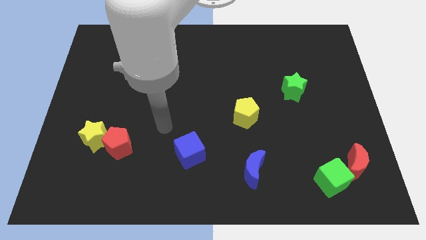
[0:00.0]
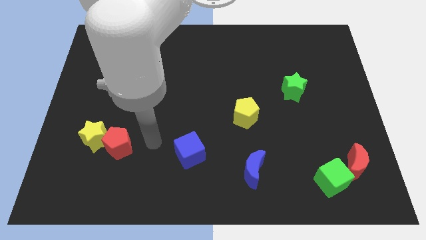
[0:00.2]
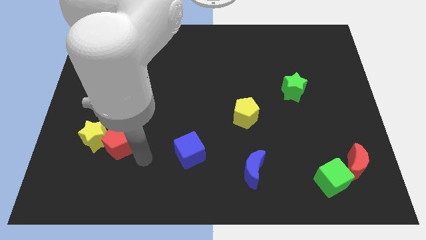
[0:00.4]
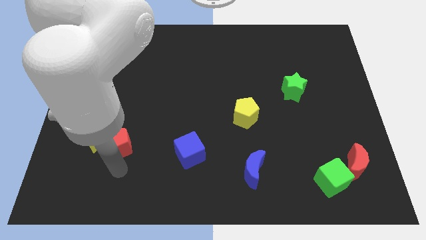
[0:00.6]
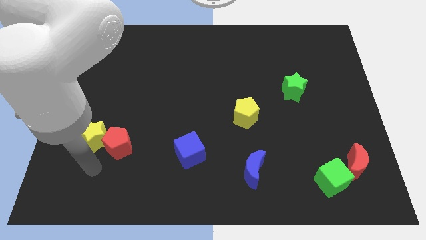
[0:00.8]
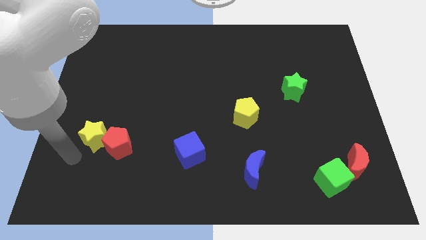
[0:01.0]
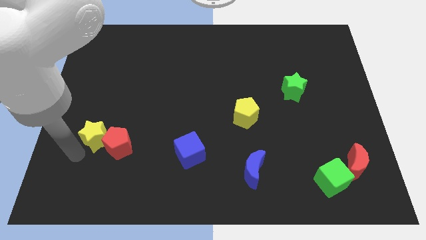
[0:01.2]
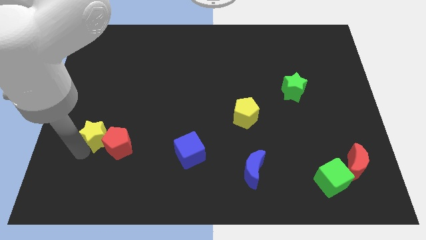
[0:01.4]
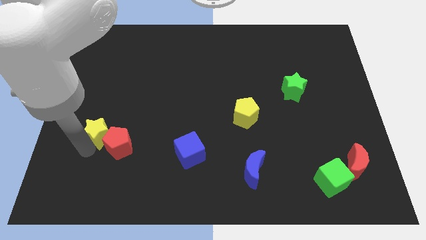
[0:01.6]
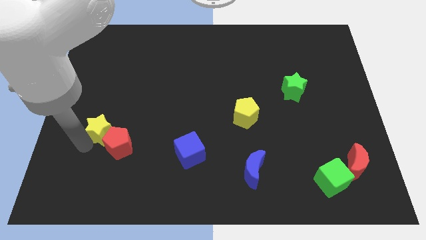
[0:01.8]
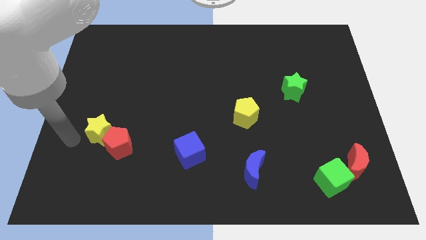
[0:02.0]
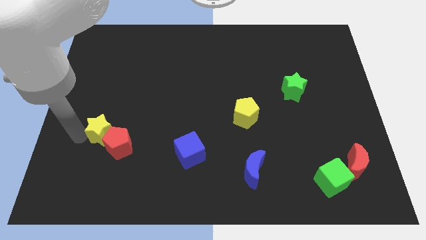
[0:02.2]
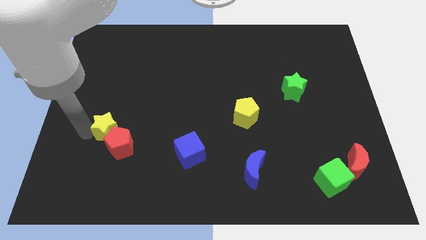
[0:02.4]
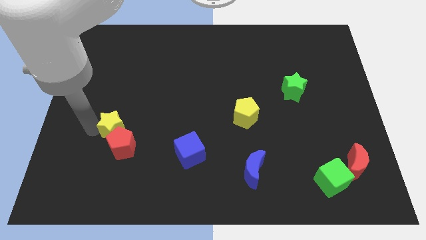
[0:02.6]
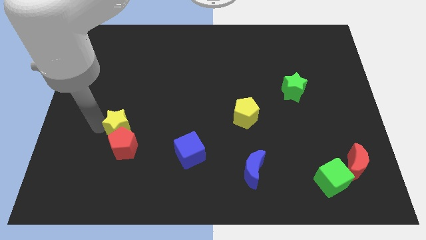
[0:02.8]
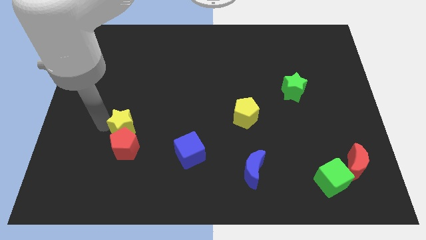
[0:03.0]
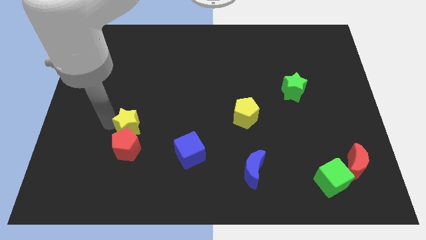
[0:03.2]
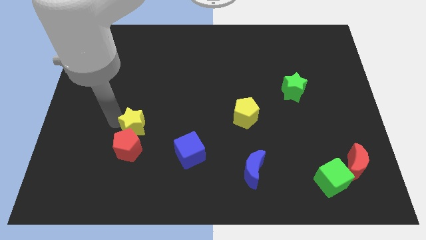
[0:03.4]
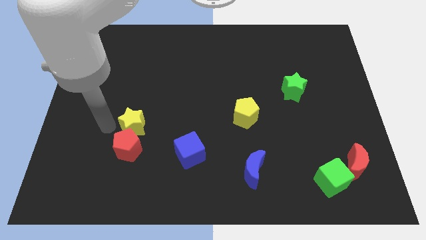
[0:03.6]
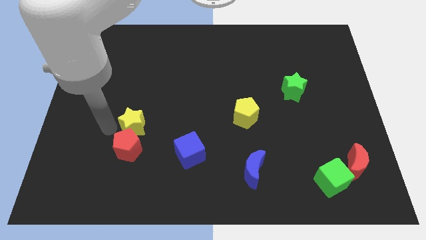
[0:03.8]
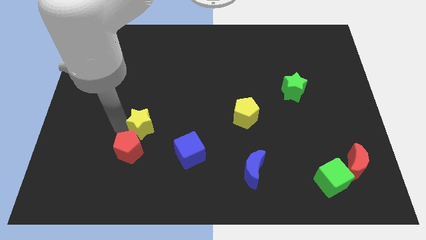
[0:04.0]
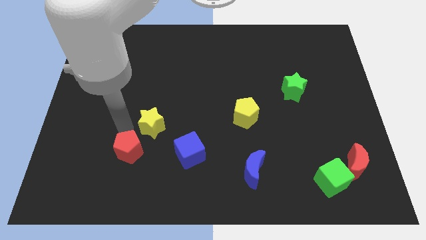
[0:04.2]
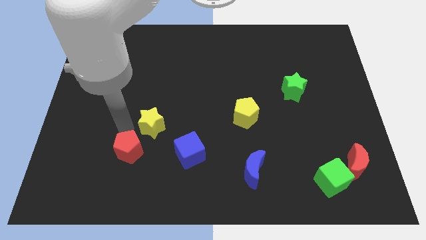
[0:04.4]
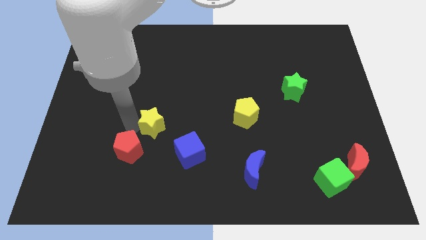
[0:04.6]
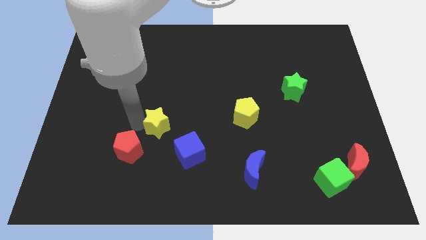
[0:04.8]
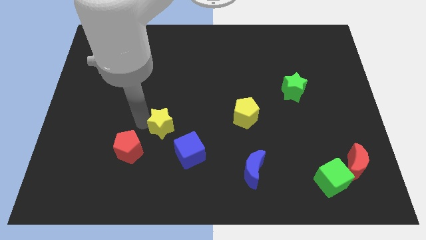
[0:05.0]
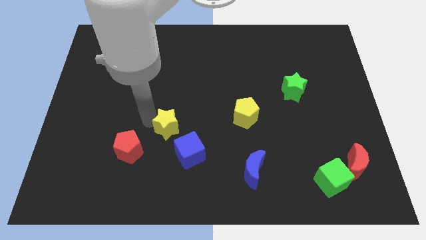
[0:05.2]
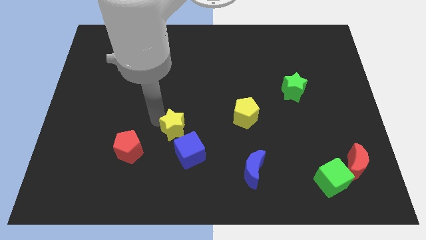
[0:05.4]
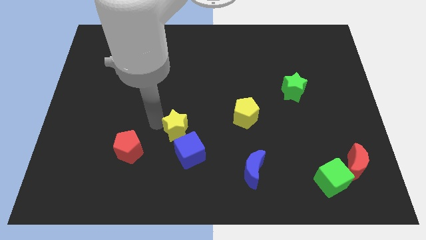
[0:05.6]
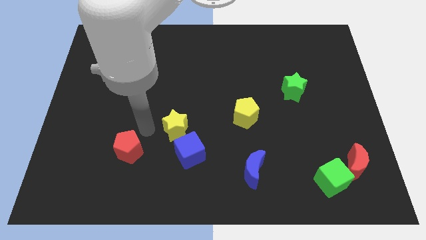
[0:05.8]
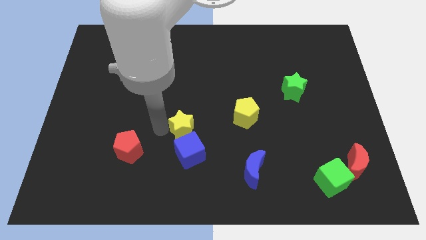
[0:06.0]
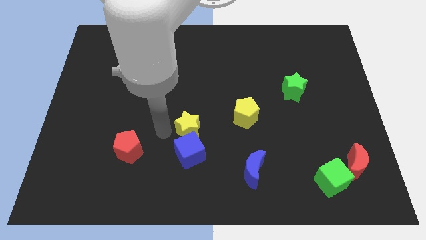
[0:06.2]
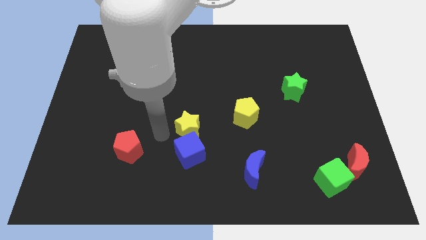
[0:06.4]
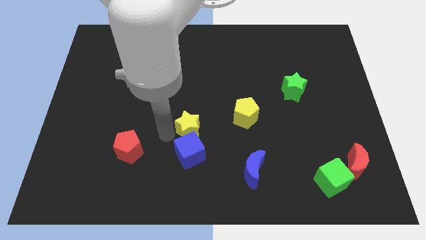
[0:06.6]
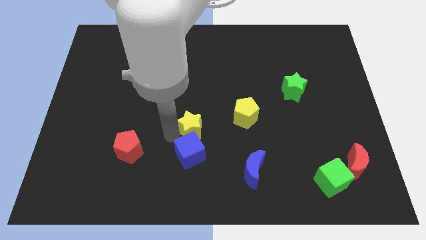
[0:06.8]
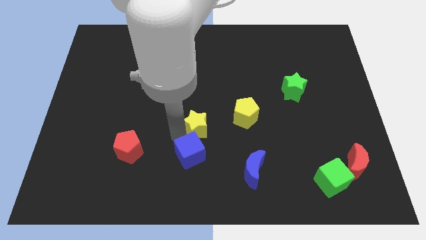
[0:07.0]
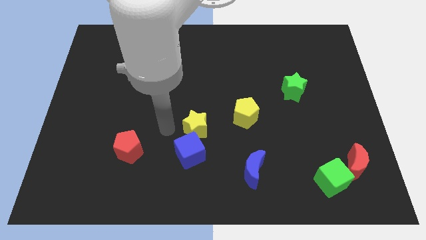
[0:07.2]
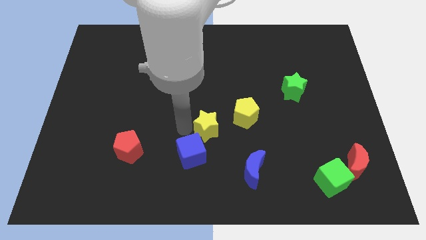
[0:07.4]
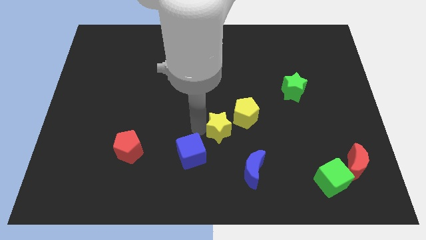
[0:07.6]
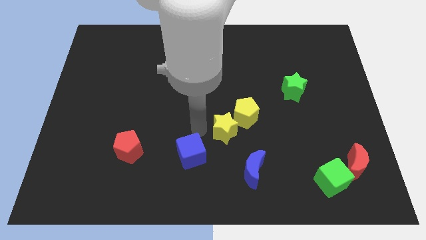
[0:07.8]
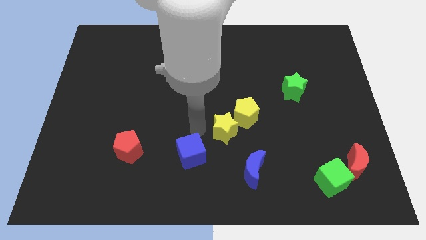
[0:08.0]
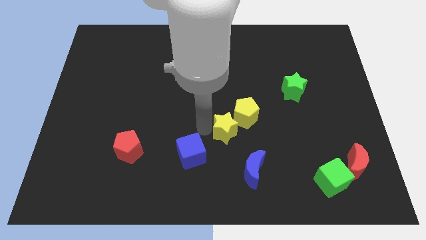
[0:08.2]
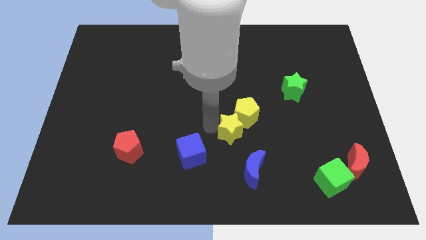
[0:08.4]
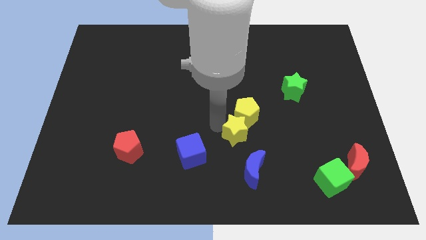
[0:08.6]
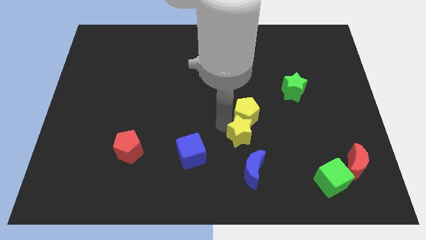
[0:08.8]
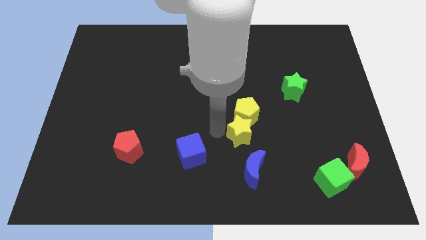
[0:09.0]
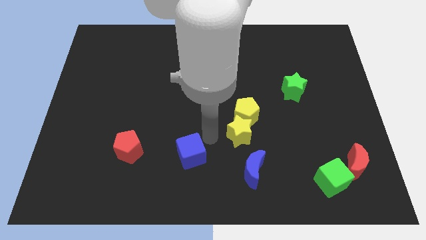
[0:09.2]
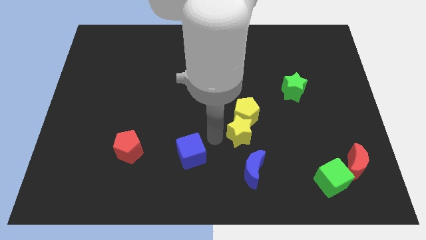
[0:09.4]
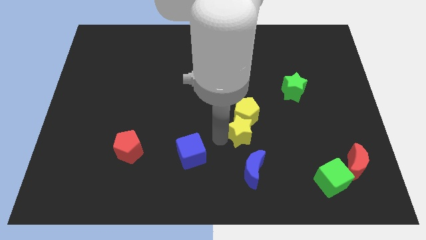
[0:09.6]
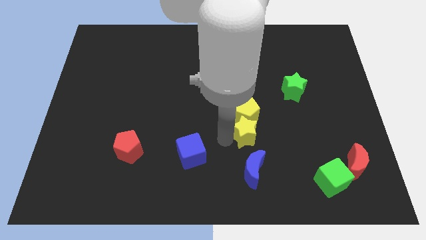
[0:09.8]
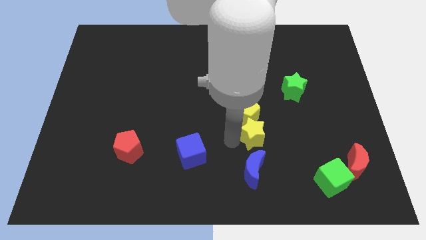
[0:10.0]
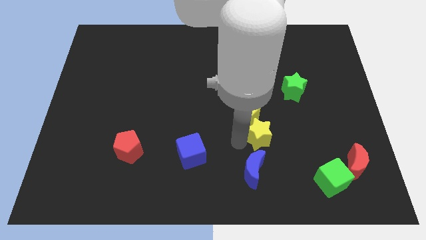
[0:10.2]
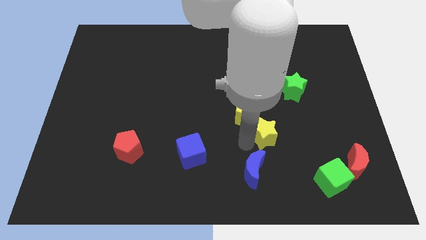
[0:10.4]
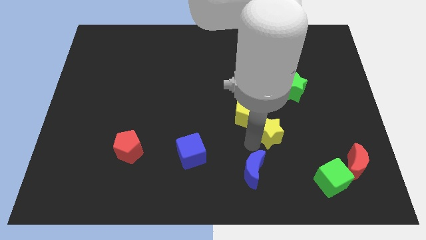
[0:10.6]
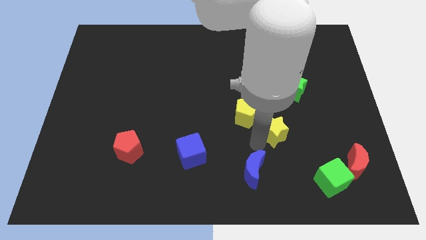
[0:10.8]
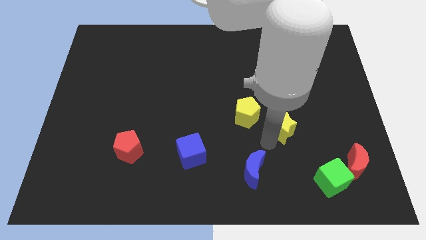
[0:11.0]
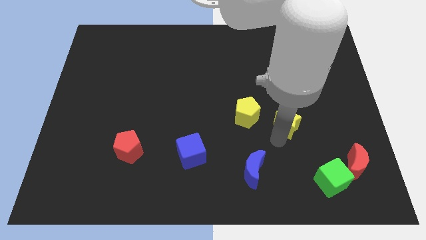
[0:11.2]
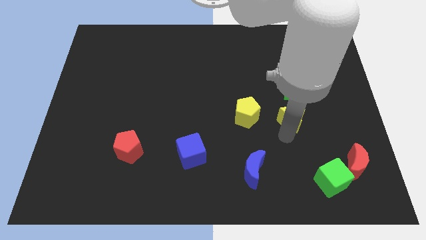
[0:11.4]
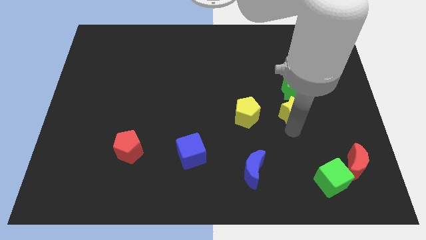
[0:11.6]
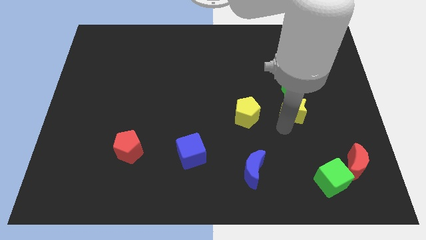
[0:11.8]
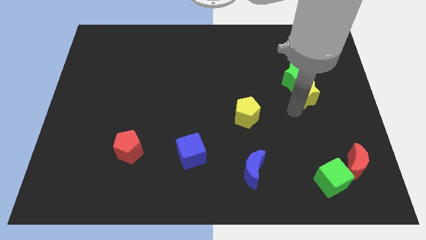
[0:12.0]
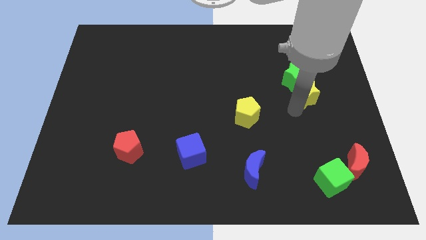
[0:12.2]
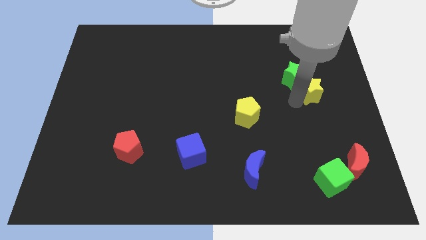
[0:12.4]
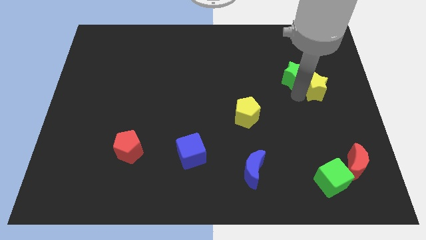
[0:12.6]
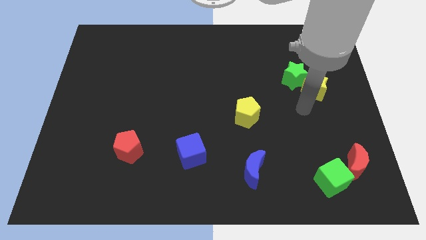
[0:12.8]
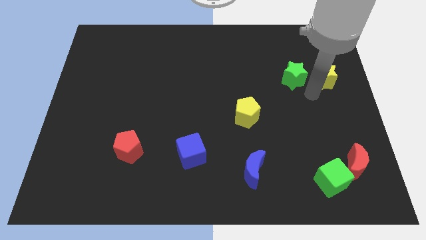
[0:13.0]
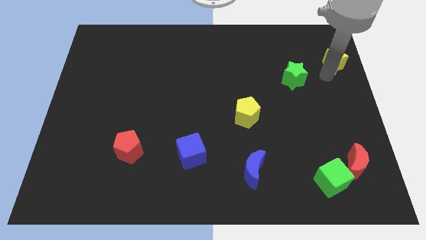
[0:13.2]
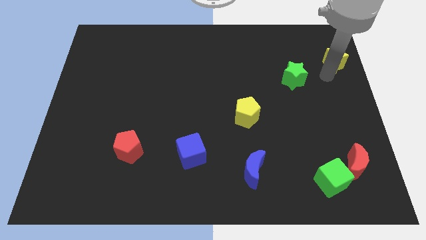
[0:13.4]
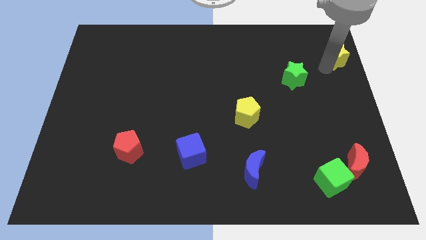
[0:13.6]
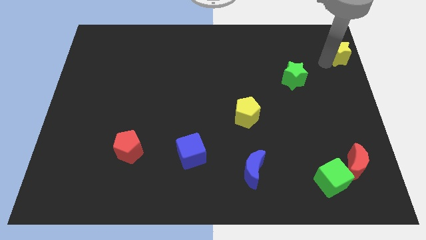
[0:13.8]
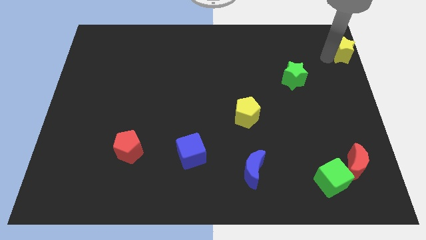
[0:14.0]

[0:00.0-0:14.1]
move the yellow star to the top right corner

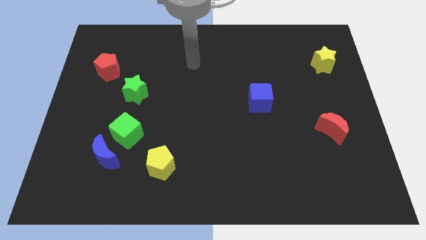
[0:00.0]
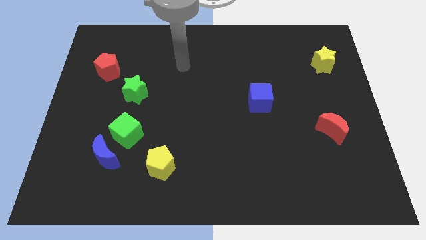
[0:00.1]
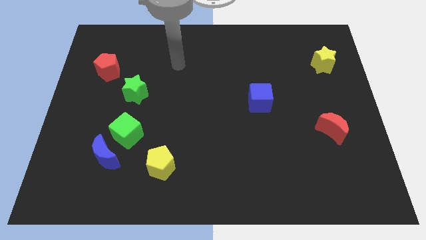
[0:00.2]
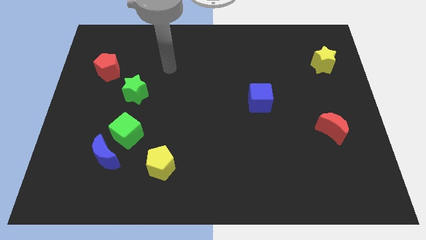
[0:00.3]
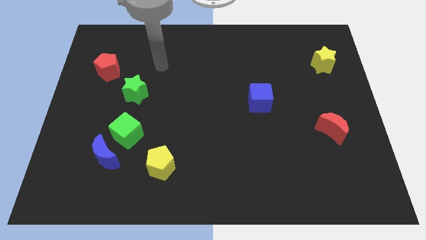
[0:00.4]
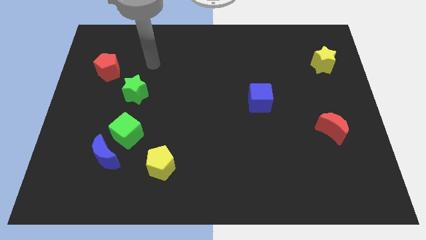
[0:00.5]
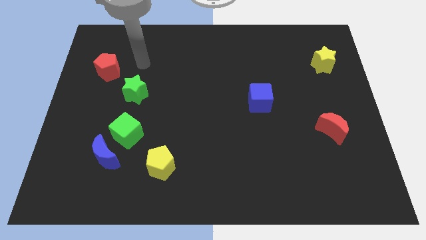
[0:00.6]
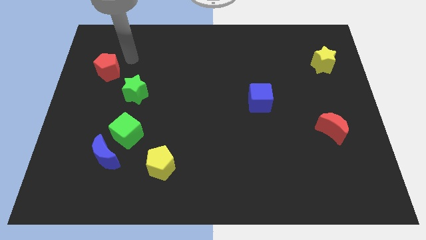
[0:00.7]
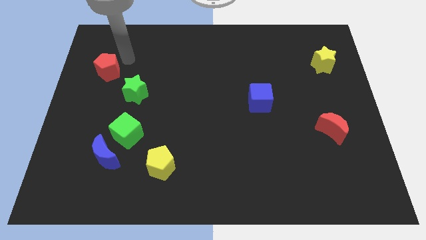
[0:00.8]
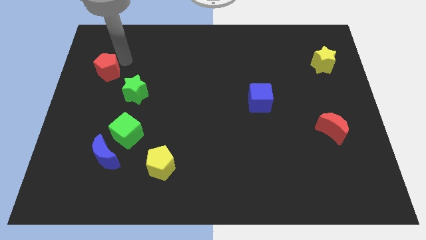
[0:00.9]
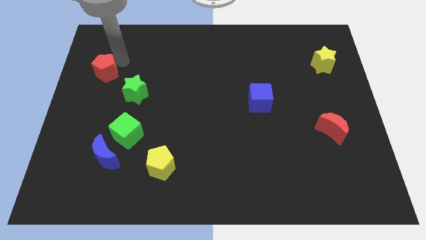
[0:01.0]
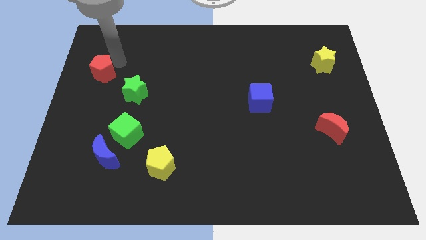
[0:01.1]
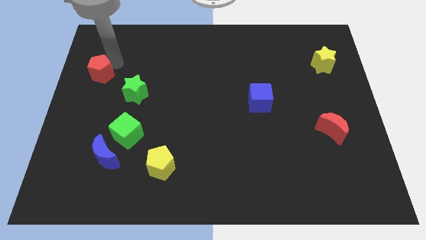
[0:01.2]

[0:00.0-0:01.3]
put the red pentagon to the left side
